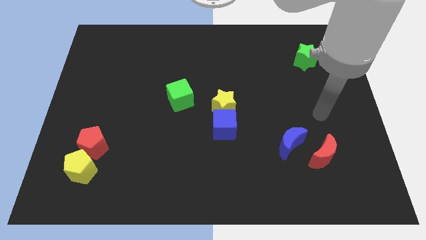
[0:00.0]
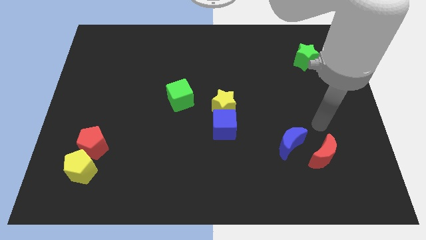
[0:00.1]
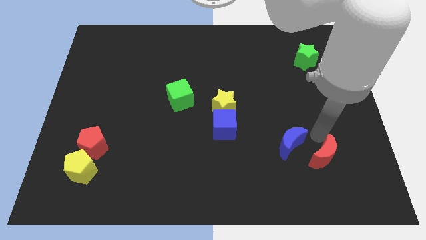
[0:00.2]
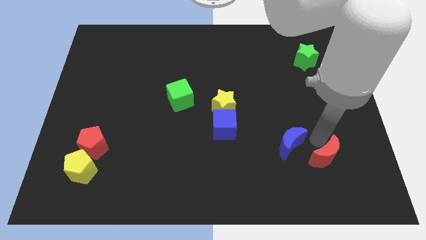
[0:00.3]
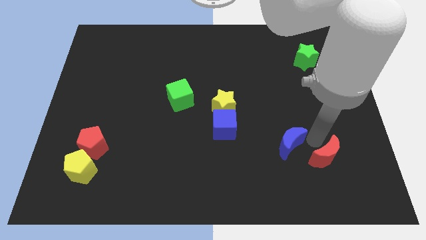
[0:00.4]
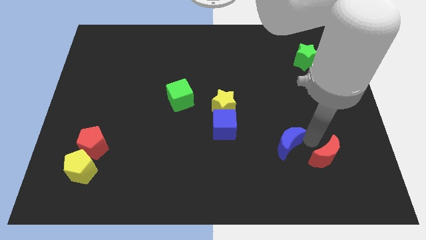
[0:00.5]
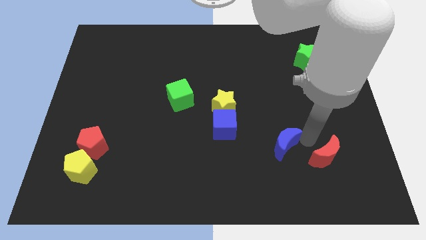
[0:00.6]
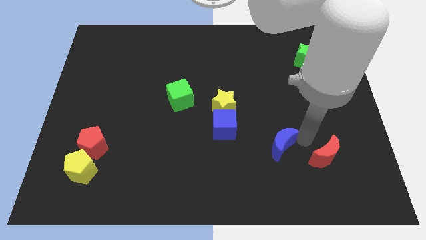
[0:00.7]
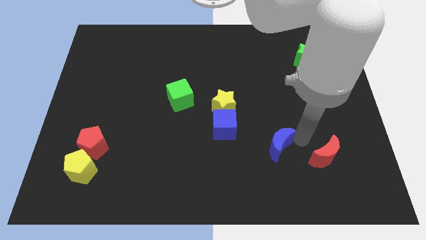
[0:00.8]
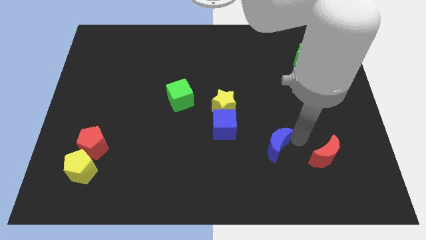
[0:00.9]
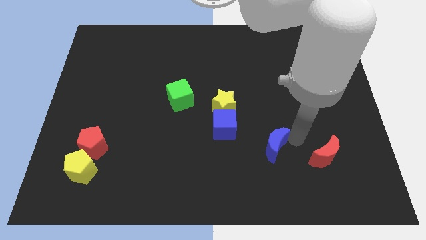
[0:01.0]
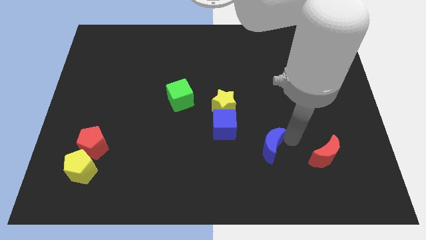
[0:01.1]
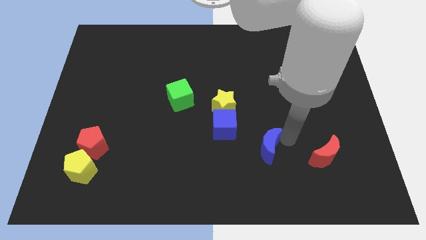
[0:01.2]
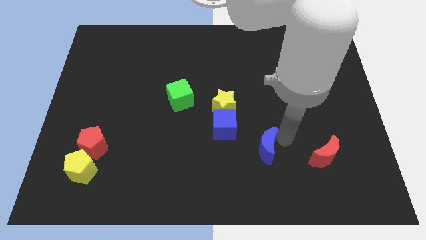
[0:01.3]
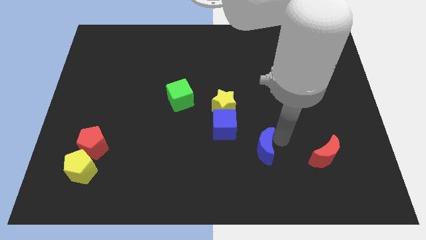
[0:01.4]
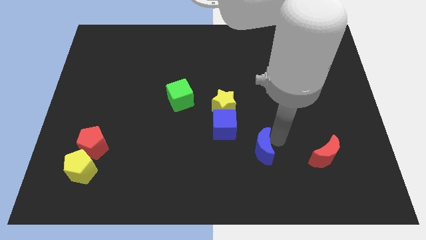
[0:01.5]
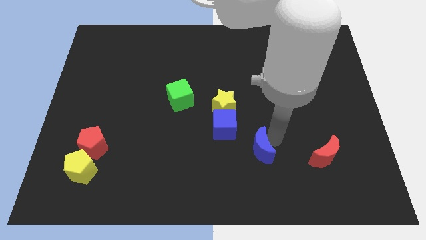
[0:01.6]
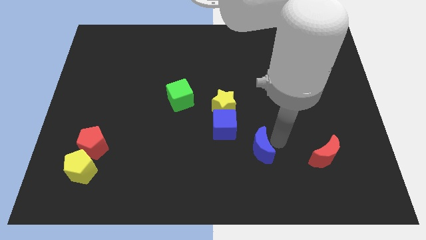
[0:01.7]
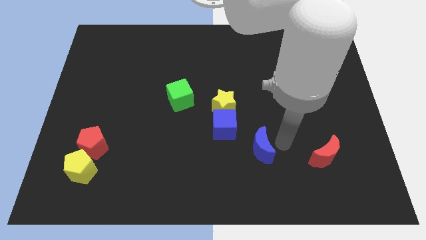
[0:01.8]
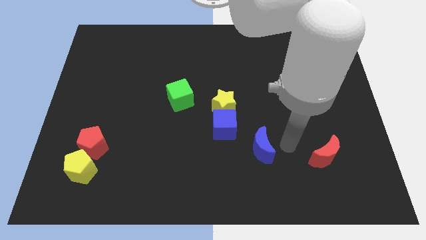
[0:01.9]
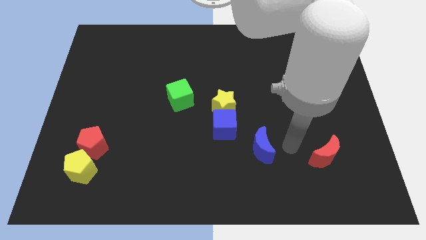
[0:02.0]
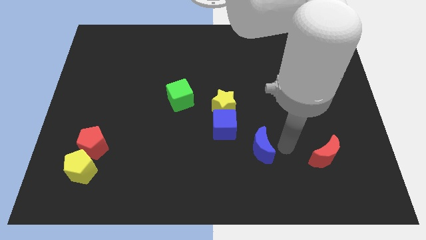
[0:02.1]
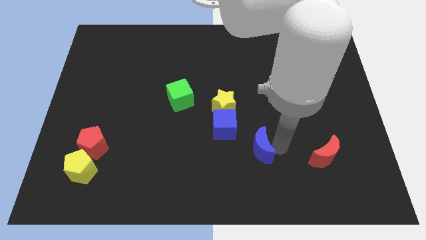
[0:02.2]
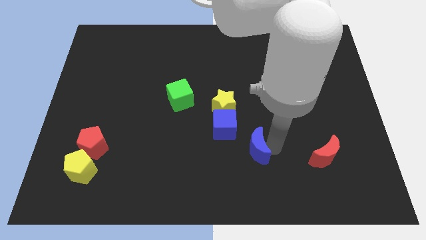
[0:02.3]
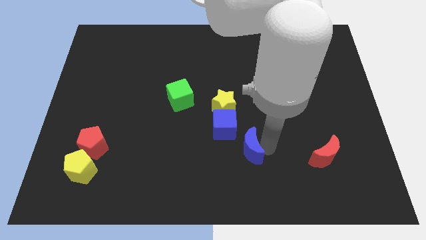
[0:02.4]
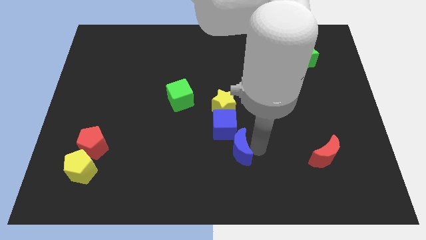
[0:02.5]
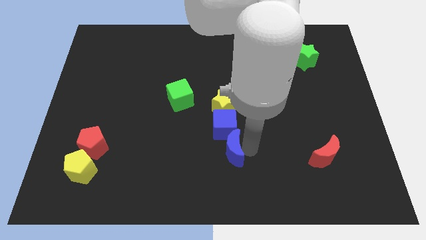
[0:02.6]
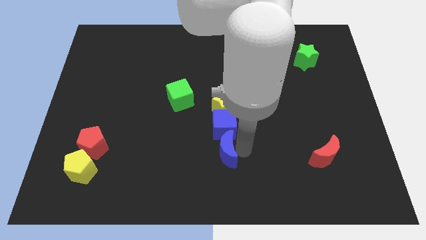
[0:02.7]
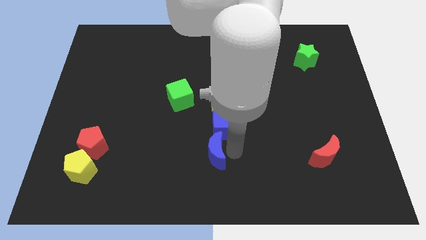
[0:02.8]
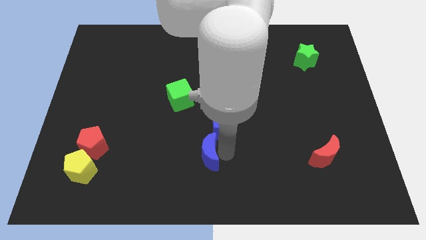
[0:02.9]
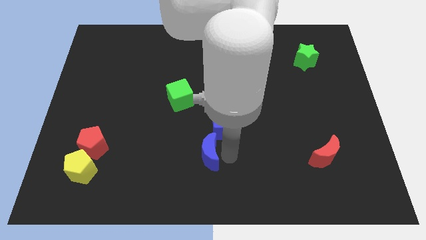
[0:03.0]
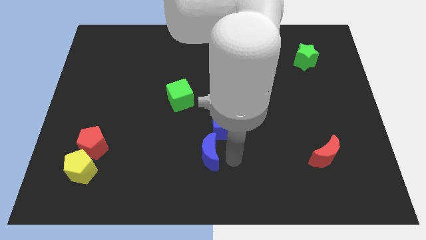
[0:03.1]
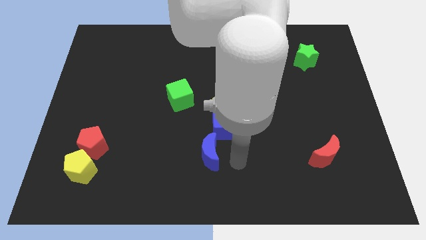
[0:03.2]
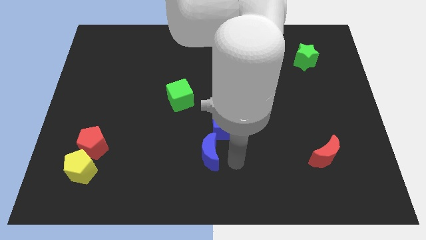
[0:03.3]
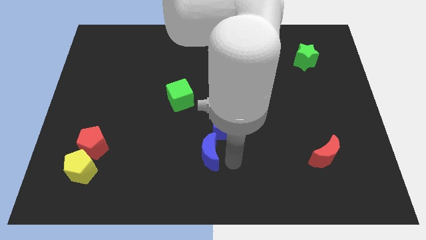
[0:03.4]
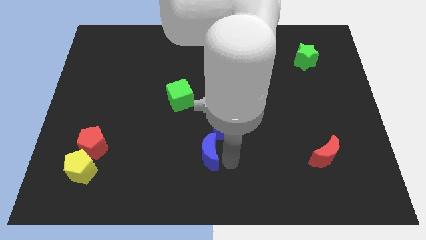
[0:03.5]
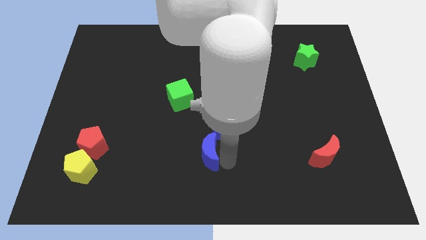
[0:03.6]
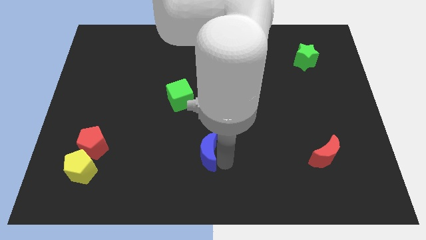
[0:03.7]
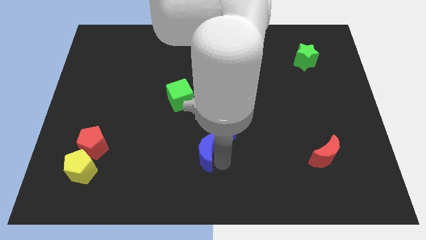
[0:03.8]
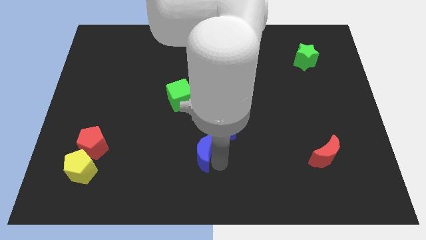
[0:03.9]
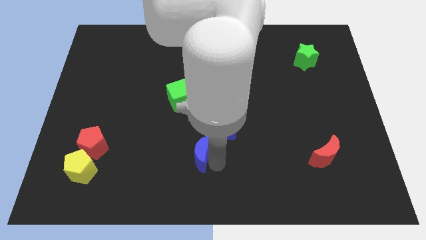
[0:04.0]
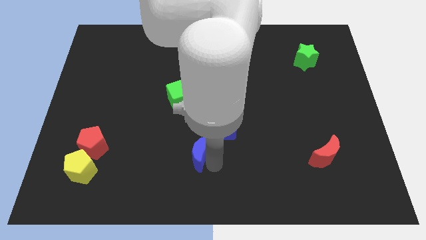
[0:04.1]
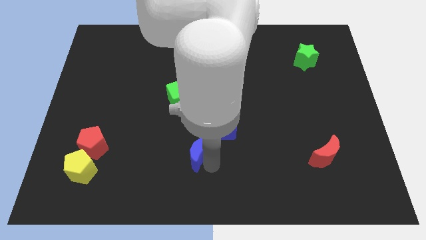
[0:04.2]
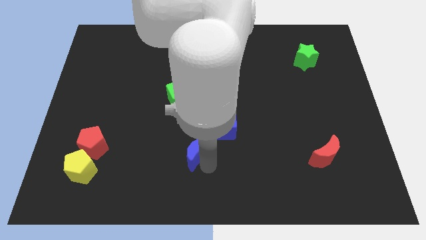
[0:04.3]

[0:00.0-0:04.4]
move the blue moon to the left

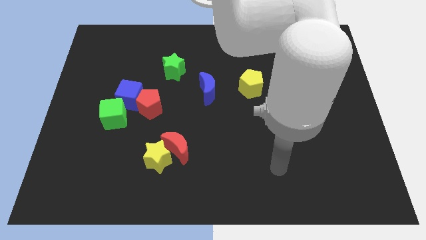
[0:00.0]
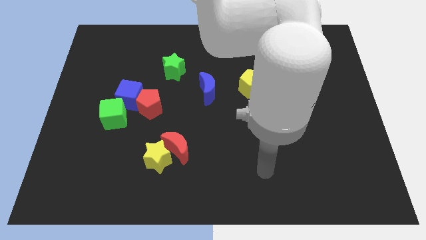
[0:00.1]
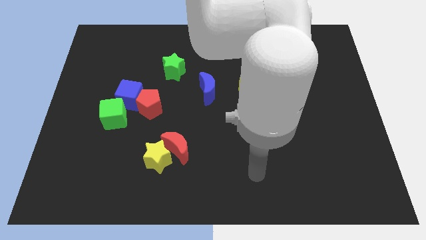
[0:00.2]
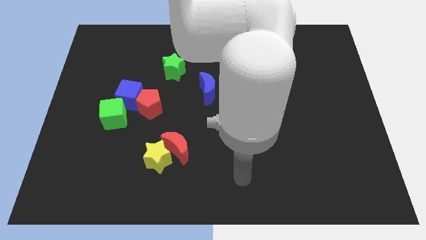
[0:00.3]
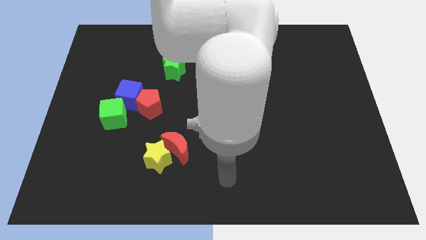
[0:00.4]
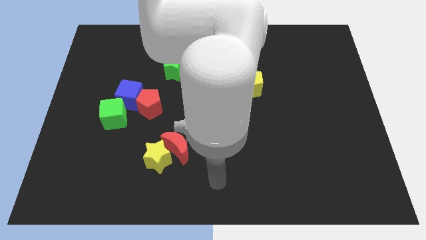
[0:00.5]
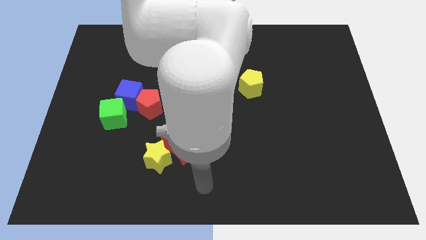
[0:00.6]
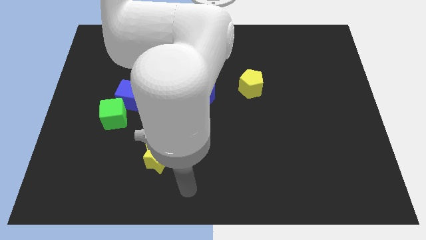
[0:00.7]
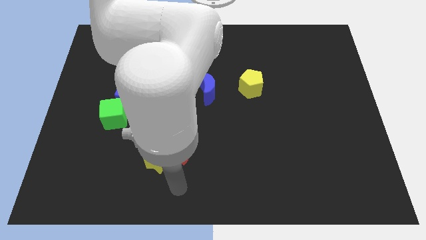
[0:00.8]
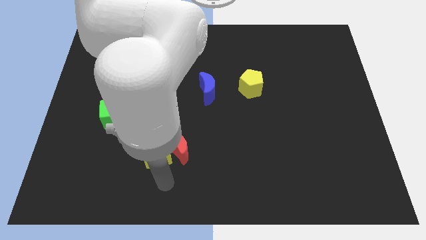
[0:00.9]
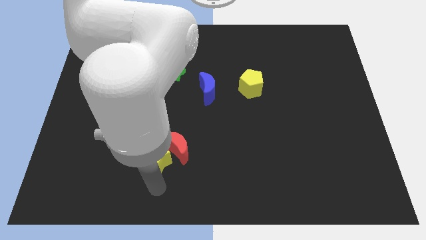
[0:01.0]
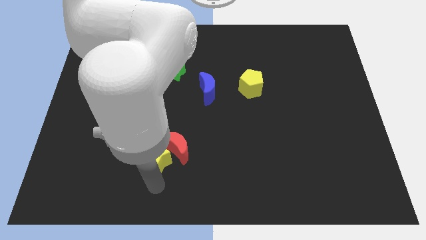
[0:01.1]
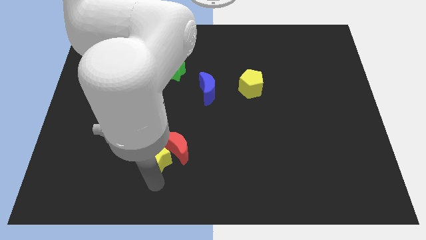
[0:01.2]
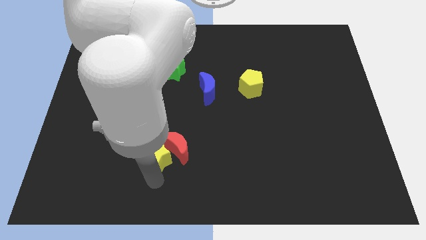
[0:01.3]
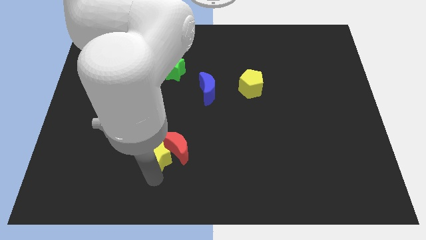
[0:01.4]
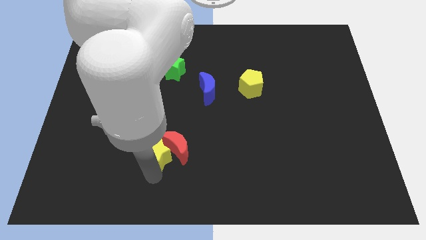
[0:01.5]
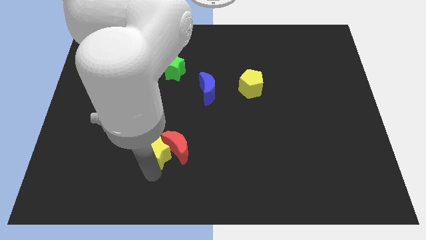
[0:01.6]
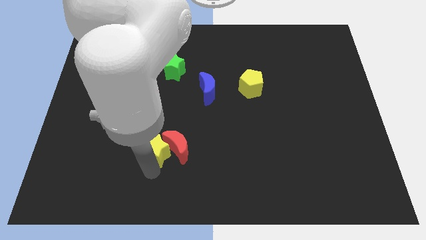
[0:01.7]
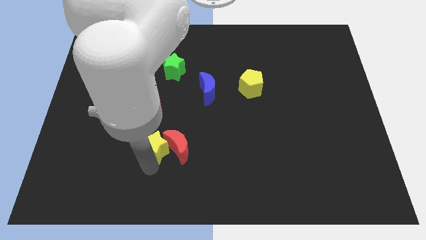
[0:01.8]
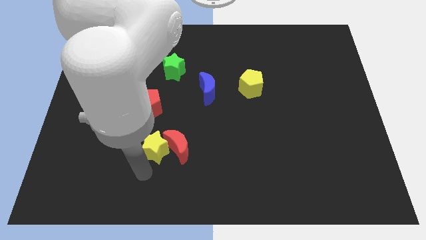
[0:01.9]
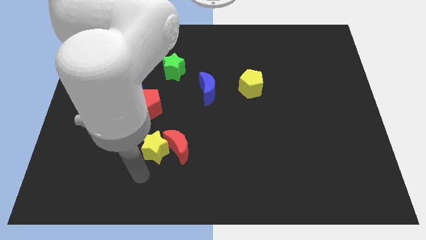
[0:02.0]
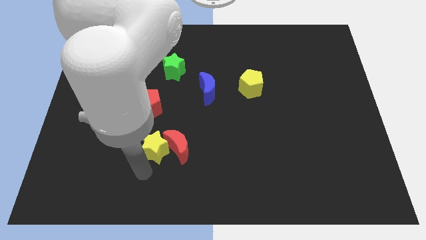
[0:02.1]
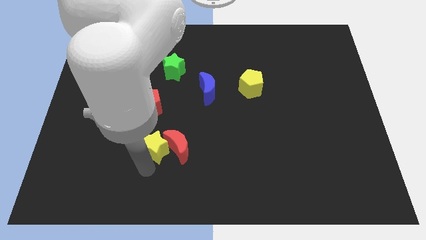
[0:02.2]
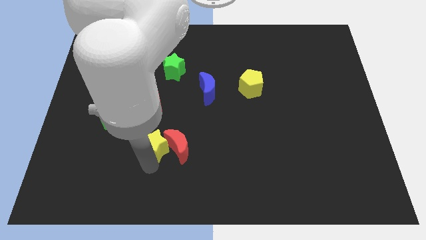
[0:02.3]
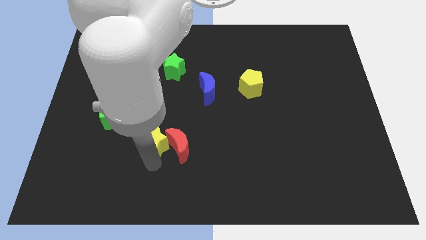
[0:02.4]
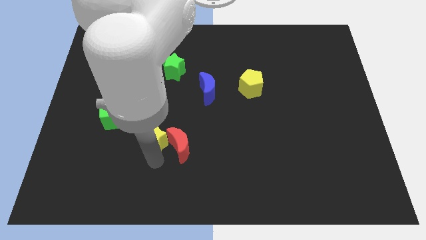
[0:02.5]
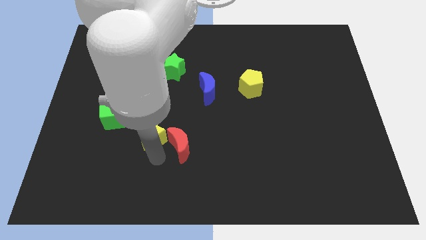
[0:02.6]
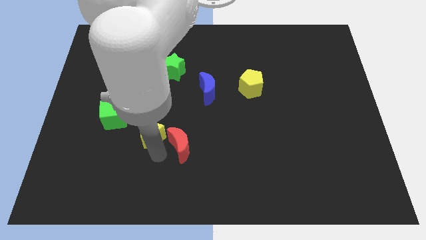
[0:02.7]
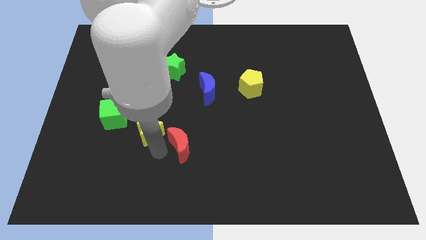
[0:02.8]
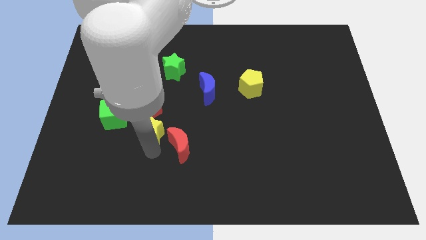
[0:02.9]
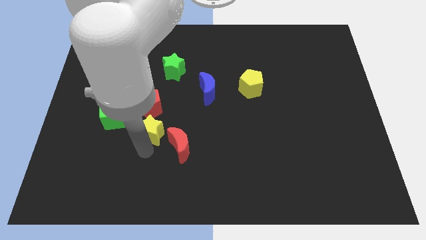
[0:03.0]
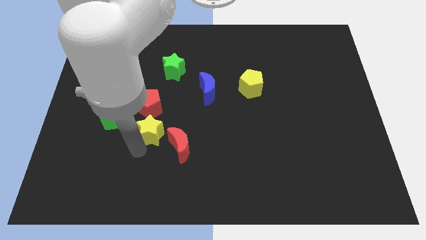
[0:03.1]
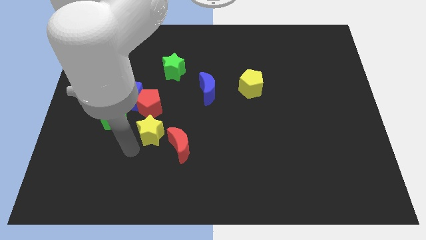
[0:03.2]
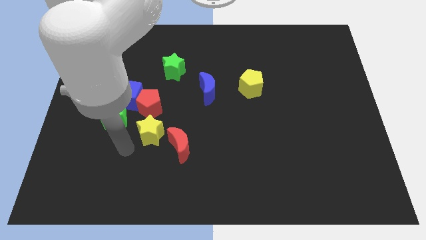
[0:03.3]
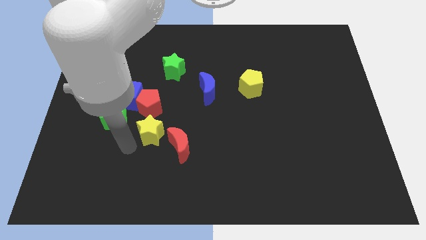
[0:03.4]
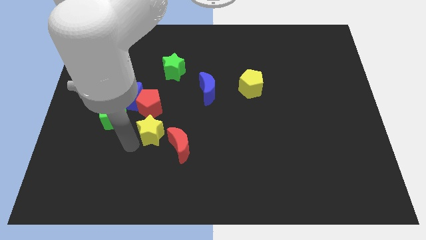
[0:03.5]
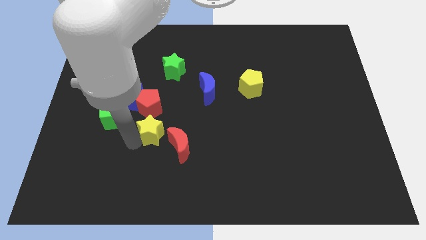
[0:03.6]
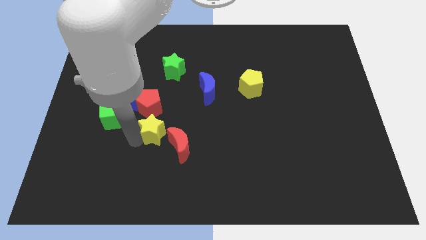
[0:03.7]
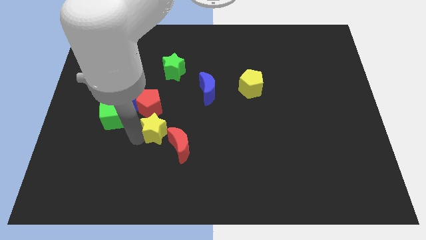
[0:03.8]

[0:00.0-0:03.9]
slightly move the yellow star up
